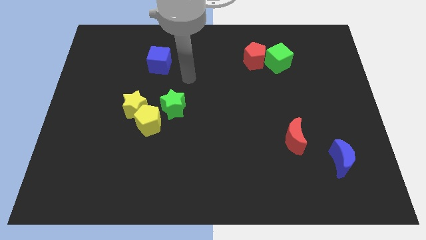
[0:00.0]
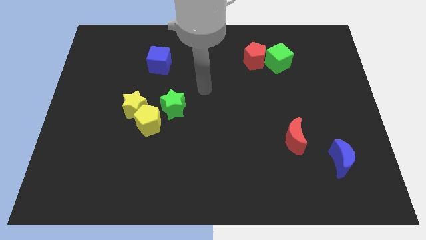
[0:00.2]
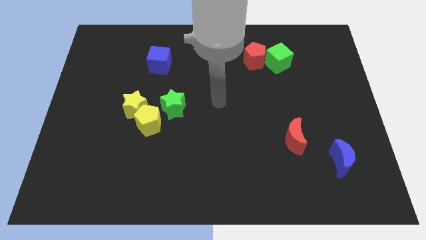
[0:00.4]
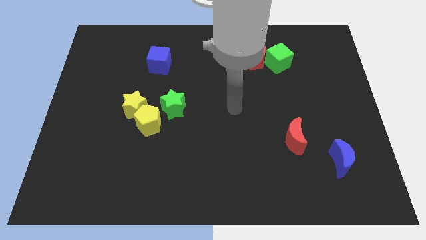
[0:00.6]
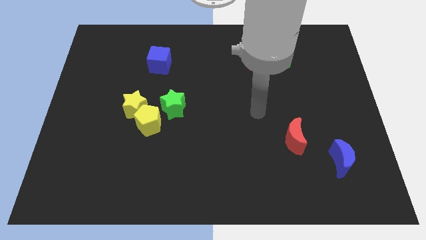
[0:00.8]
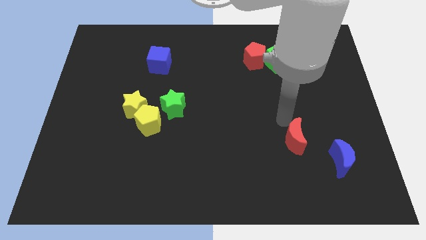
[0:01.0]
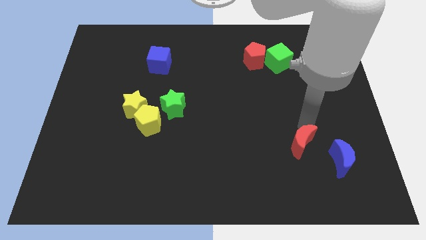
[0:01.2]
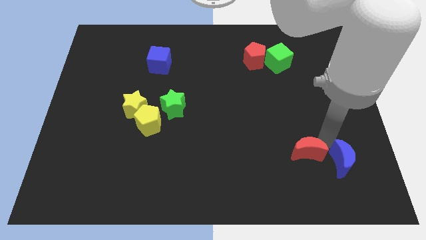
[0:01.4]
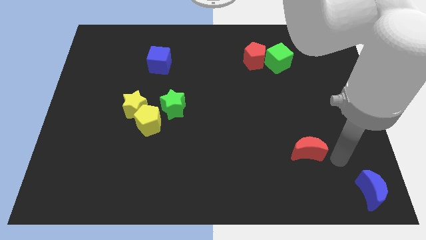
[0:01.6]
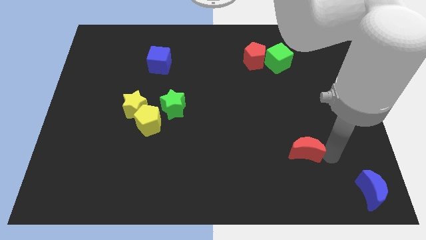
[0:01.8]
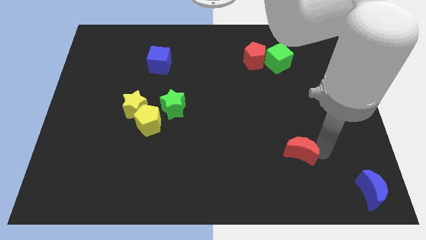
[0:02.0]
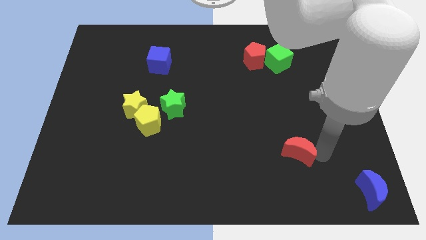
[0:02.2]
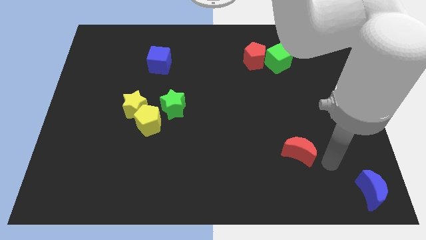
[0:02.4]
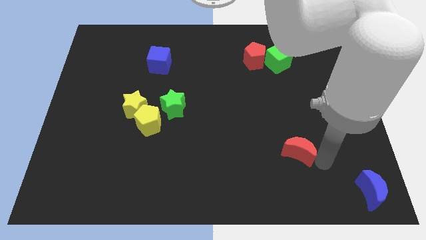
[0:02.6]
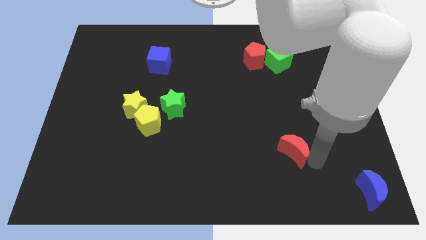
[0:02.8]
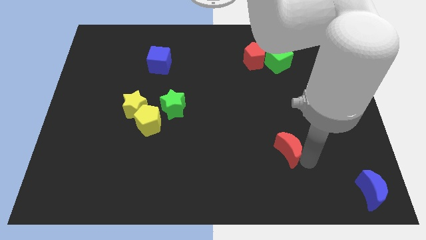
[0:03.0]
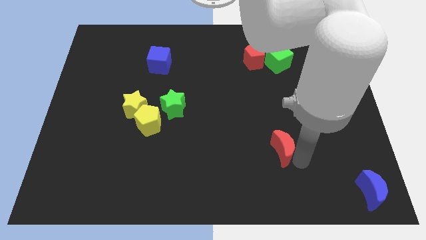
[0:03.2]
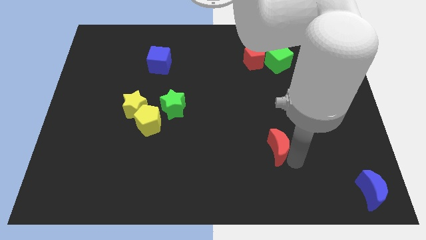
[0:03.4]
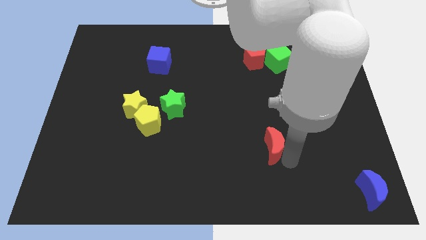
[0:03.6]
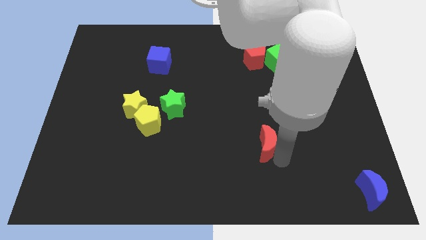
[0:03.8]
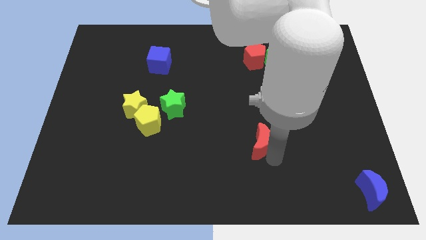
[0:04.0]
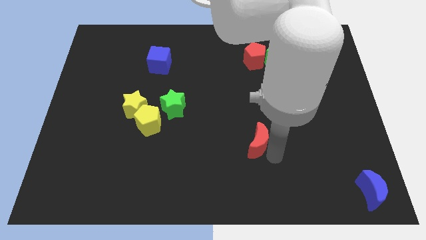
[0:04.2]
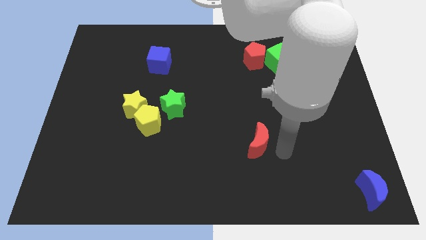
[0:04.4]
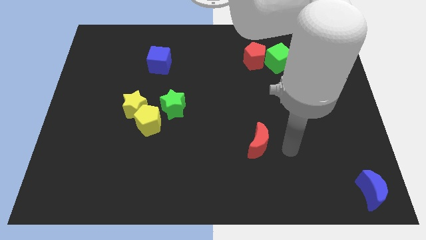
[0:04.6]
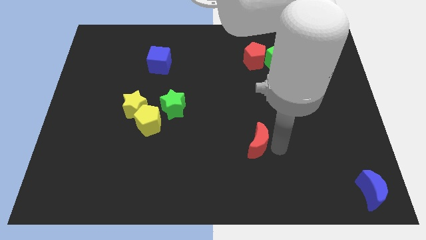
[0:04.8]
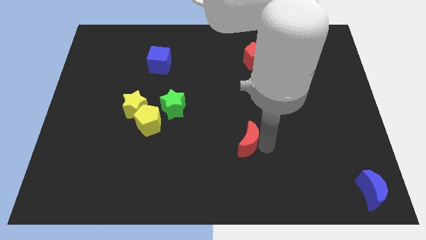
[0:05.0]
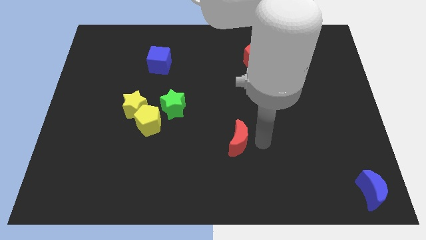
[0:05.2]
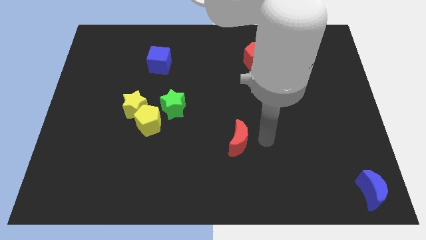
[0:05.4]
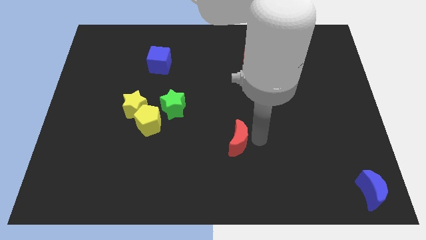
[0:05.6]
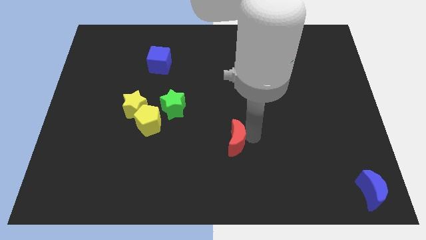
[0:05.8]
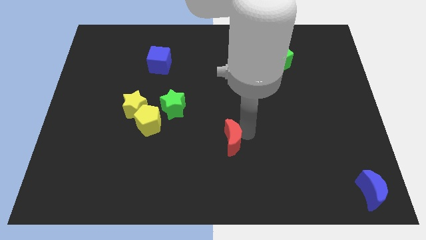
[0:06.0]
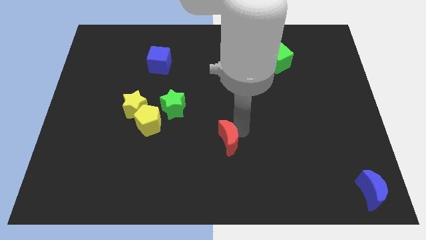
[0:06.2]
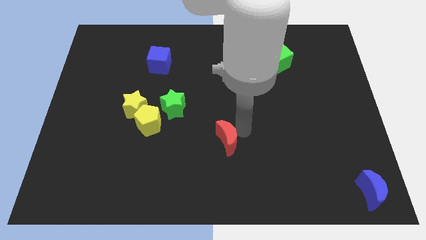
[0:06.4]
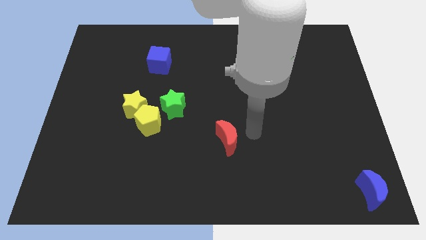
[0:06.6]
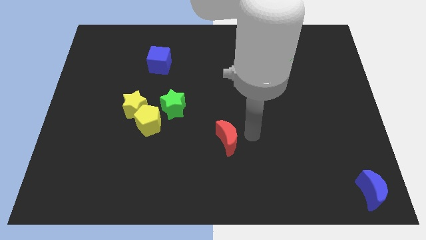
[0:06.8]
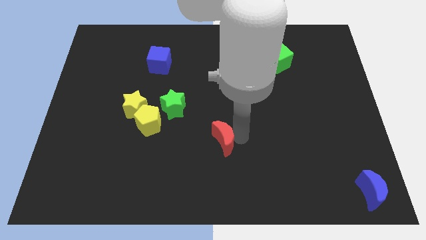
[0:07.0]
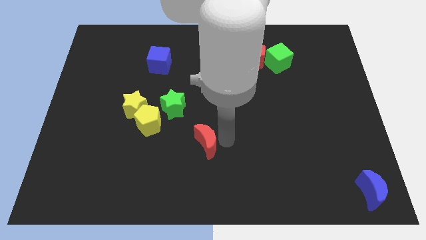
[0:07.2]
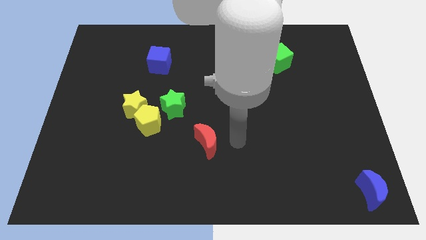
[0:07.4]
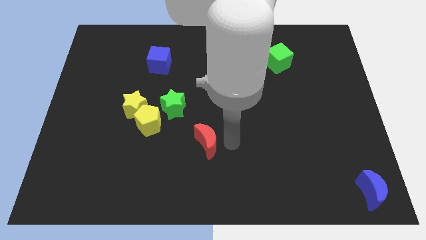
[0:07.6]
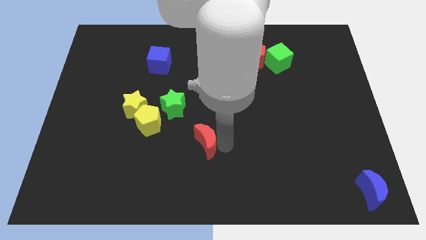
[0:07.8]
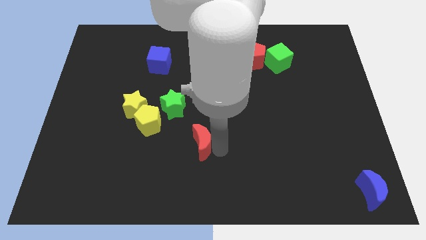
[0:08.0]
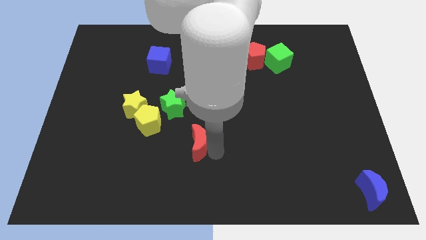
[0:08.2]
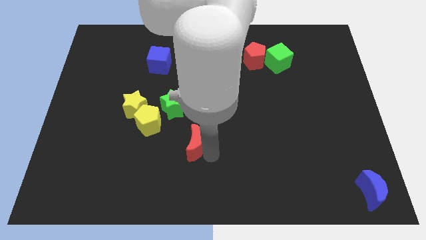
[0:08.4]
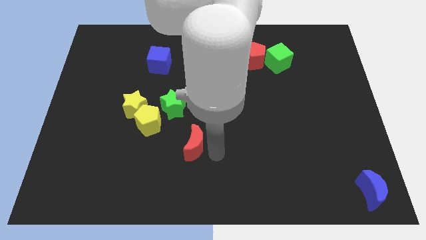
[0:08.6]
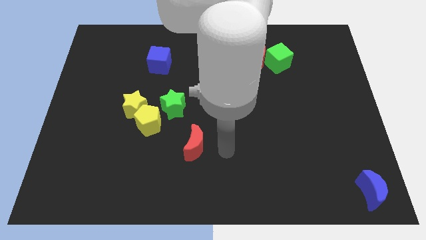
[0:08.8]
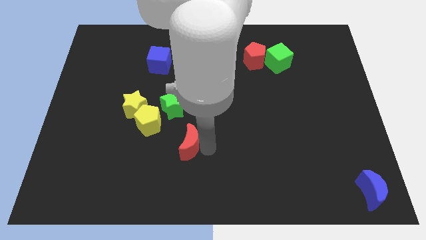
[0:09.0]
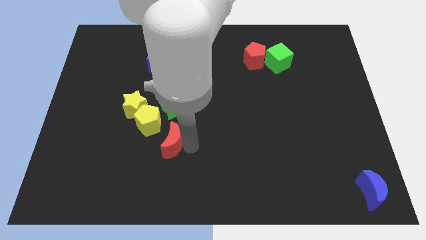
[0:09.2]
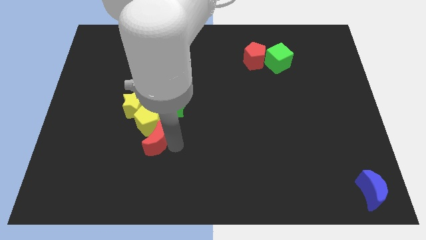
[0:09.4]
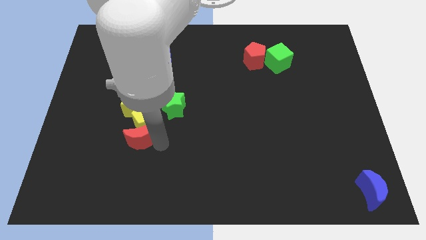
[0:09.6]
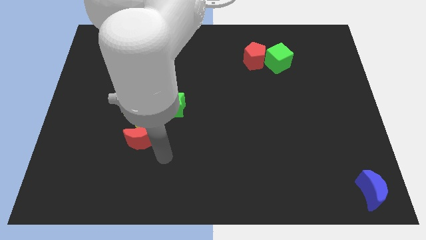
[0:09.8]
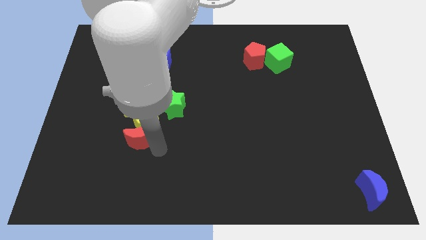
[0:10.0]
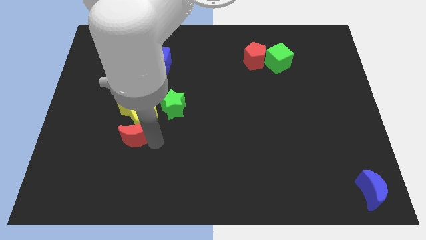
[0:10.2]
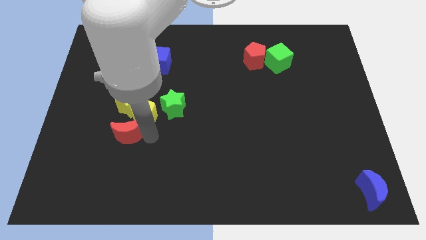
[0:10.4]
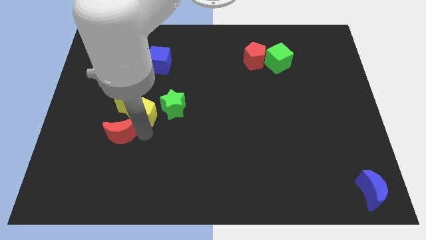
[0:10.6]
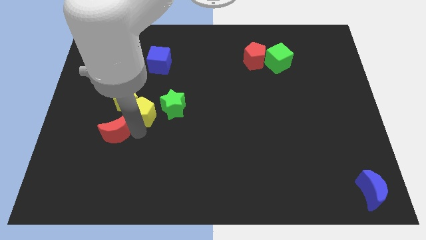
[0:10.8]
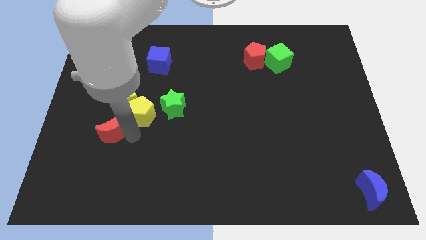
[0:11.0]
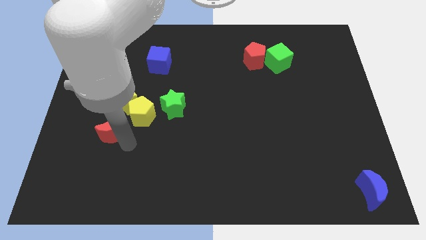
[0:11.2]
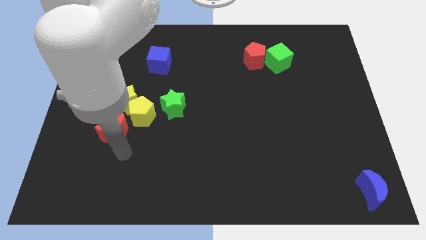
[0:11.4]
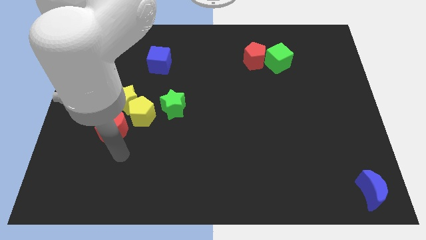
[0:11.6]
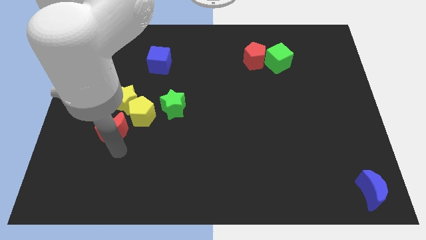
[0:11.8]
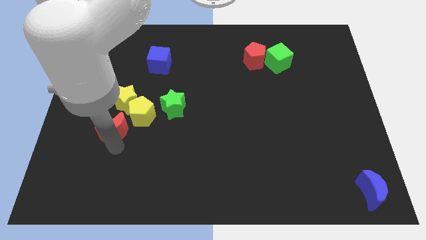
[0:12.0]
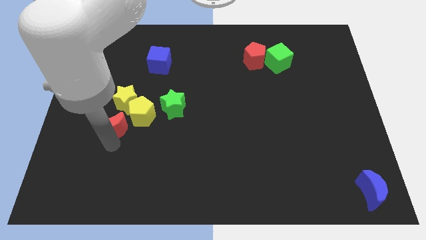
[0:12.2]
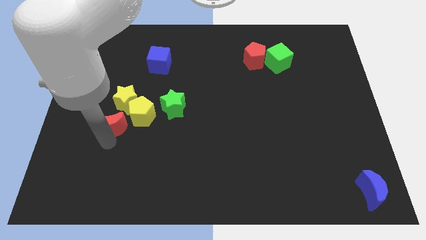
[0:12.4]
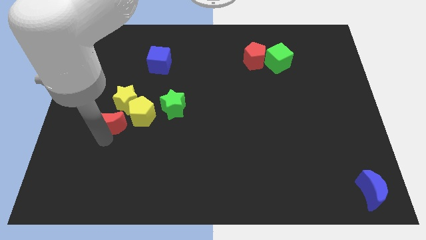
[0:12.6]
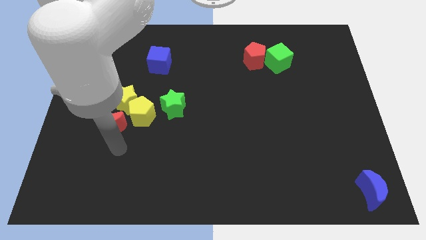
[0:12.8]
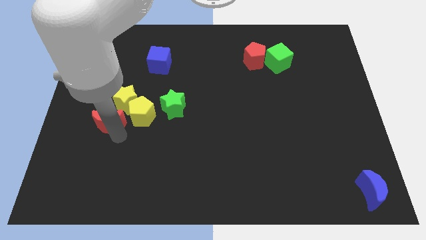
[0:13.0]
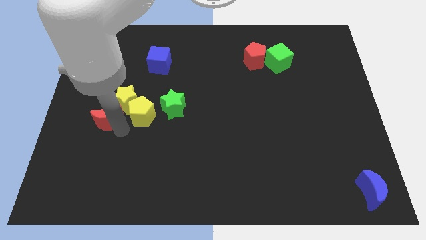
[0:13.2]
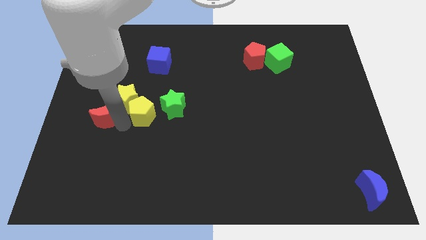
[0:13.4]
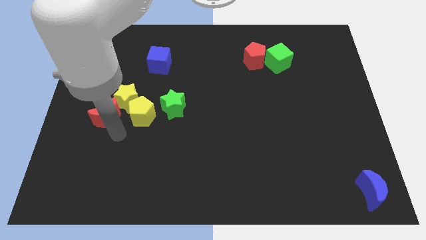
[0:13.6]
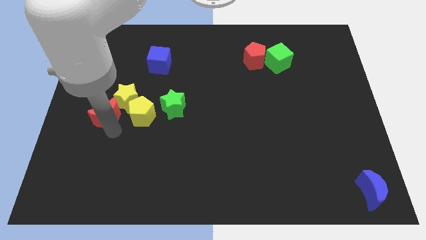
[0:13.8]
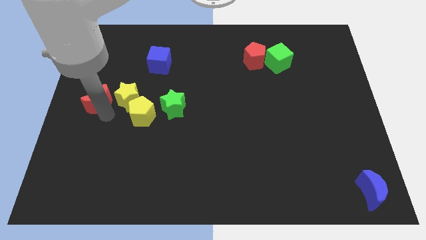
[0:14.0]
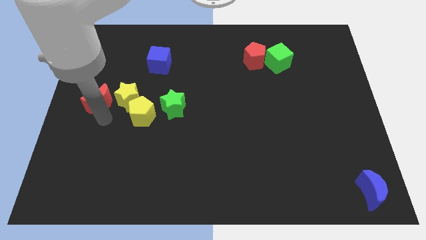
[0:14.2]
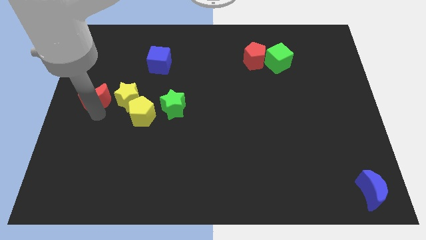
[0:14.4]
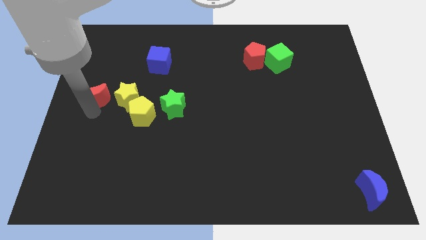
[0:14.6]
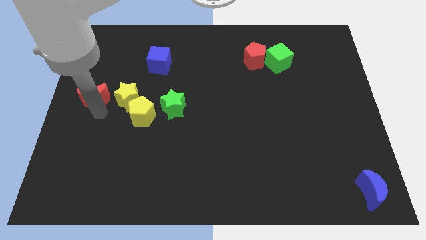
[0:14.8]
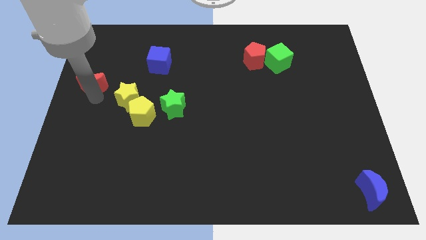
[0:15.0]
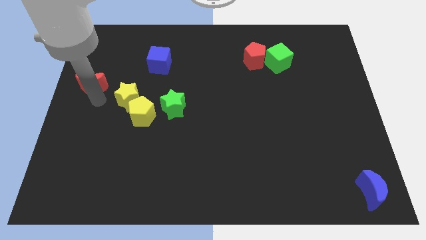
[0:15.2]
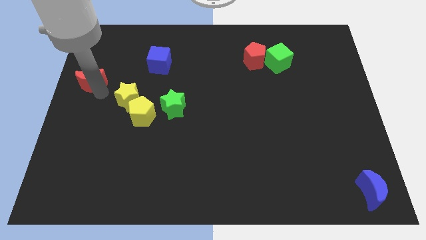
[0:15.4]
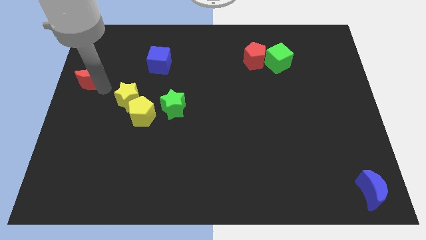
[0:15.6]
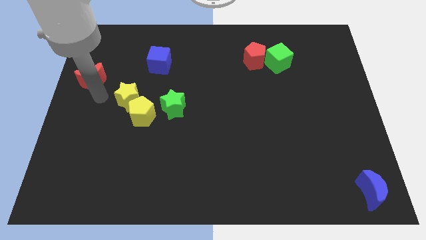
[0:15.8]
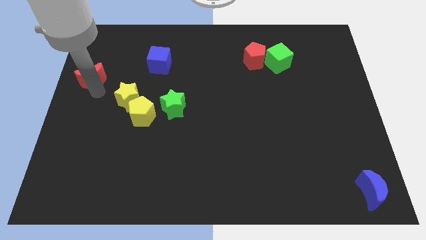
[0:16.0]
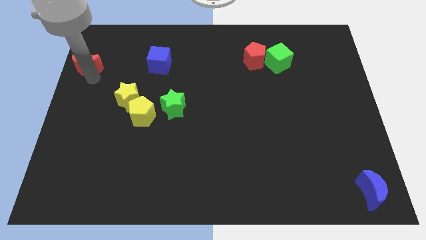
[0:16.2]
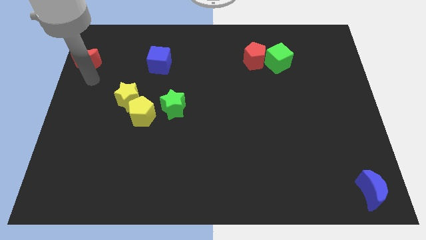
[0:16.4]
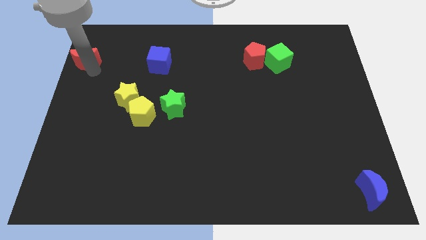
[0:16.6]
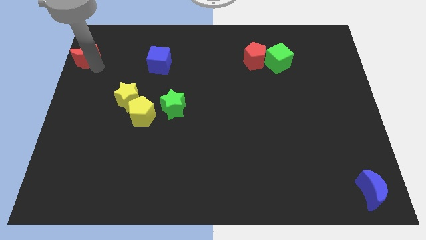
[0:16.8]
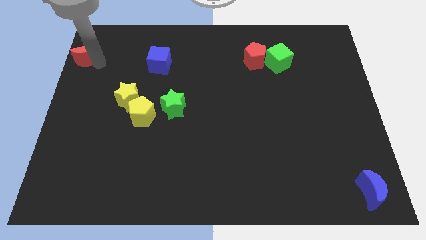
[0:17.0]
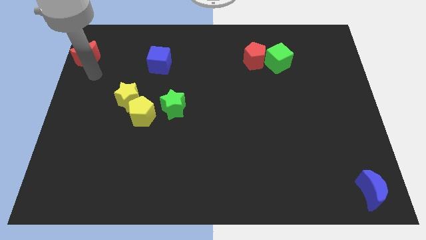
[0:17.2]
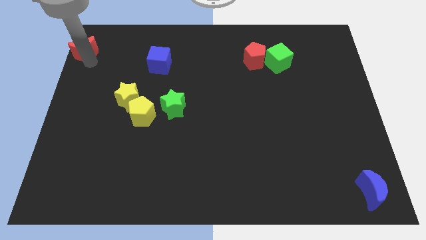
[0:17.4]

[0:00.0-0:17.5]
move the red moon to the upper left corner
